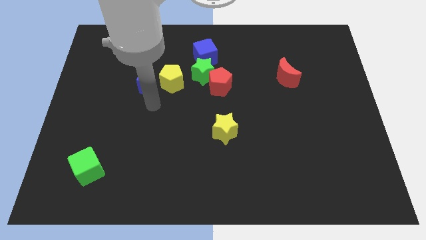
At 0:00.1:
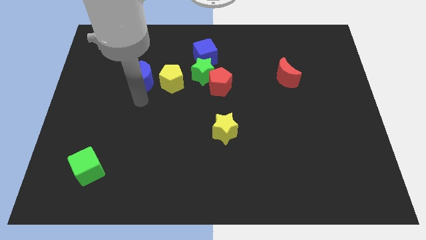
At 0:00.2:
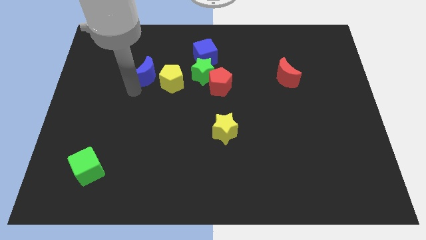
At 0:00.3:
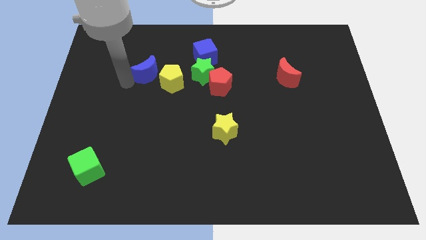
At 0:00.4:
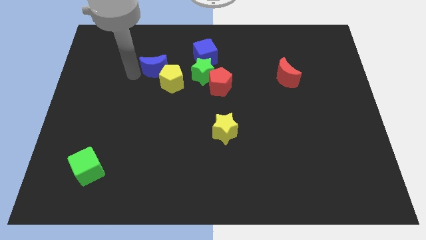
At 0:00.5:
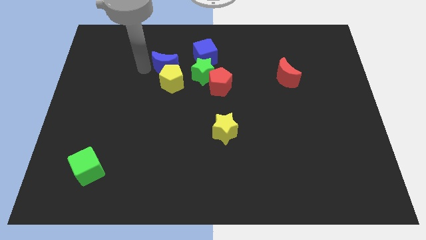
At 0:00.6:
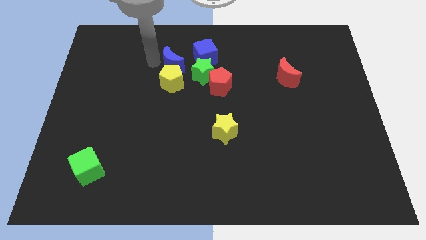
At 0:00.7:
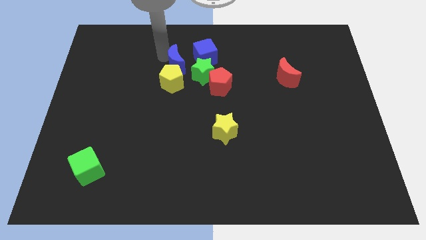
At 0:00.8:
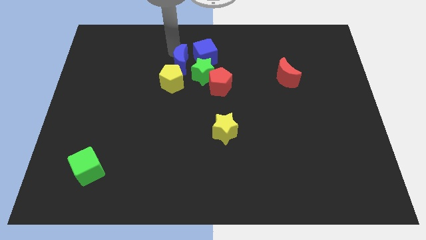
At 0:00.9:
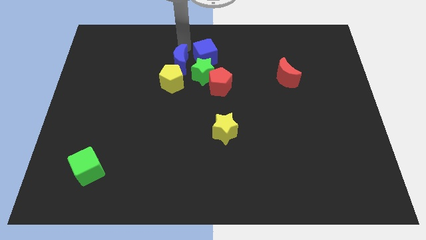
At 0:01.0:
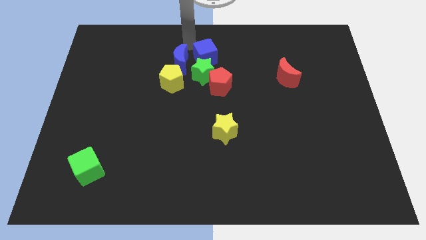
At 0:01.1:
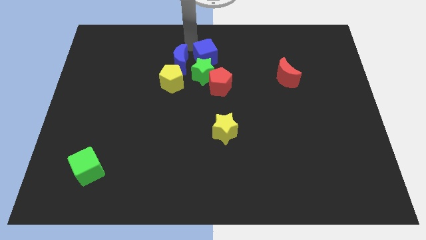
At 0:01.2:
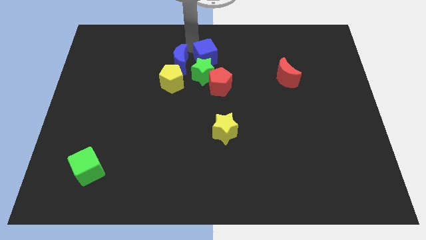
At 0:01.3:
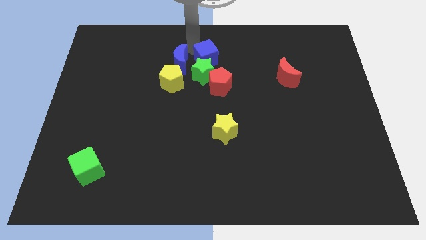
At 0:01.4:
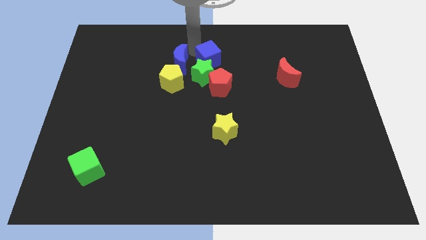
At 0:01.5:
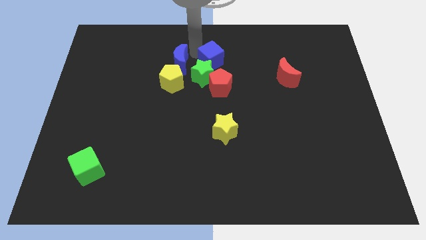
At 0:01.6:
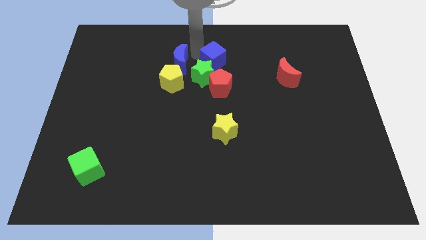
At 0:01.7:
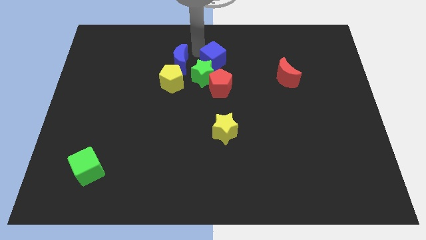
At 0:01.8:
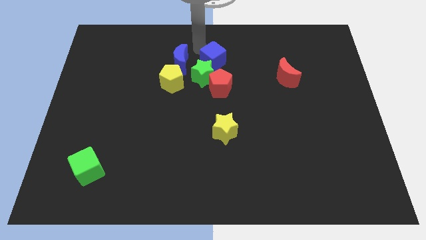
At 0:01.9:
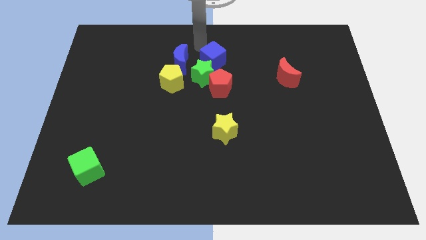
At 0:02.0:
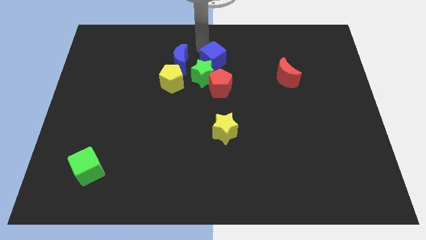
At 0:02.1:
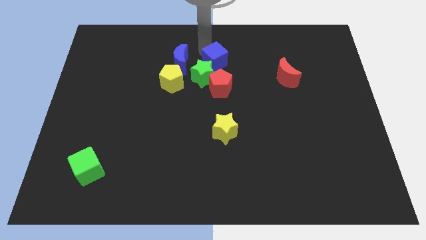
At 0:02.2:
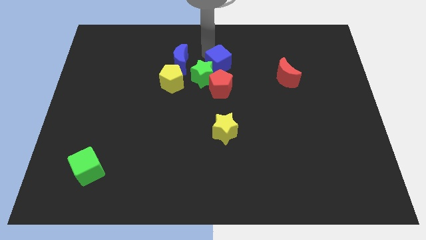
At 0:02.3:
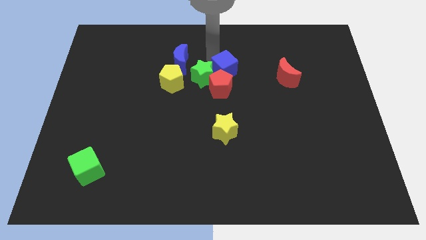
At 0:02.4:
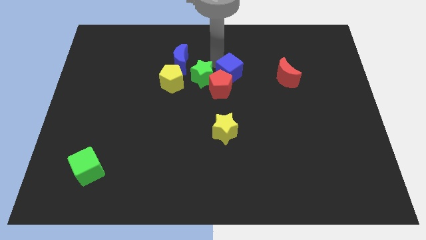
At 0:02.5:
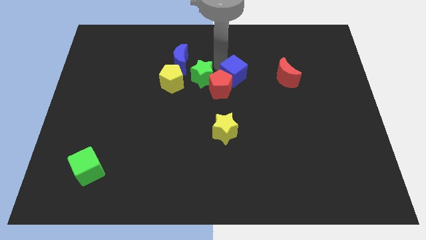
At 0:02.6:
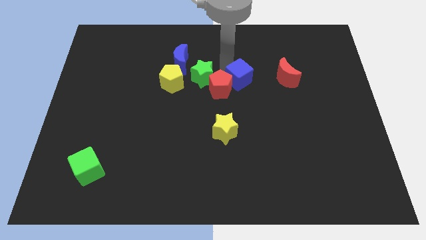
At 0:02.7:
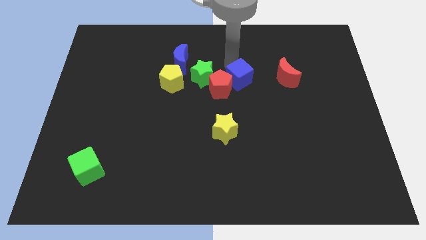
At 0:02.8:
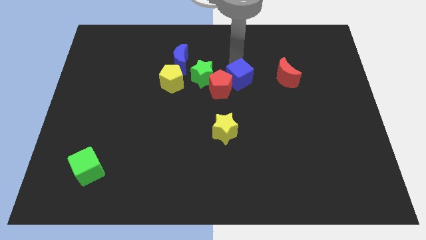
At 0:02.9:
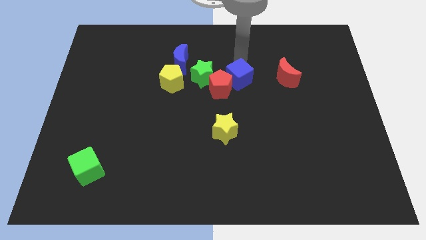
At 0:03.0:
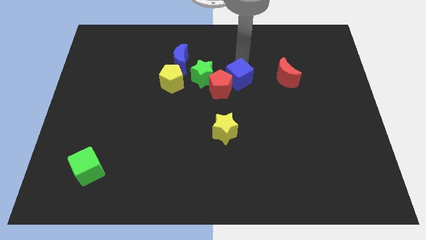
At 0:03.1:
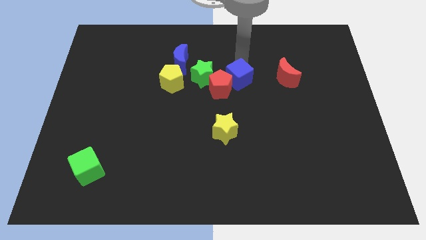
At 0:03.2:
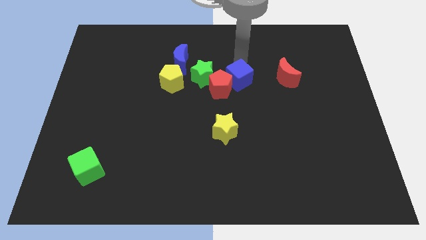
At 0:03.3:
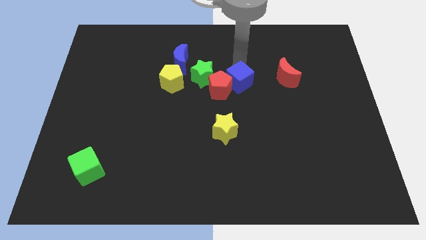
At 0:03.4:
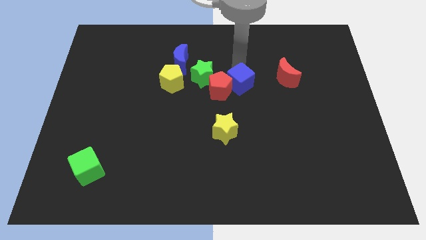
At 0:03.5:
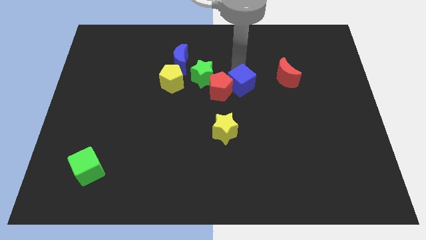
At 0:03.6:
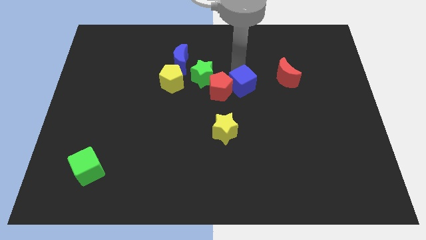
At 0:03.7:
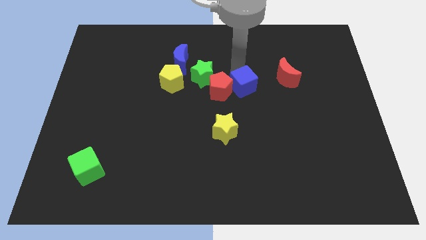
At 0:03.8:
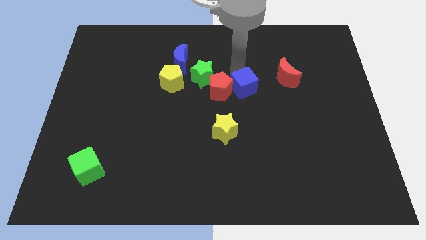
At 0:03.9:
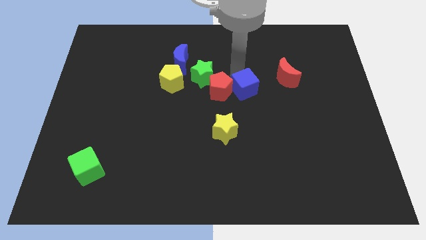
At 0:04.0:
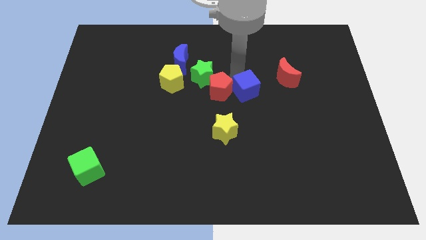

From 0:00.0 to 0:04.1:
slide the blue cube a bit downwards

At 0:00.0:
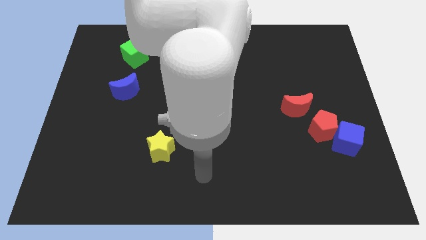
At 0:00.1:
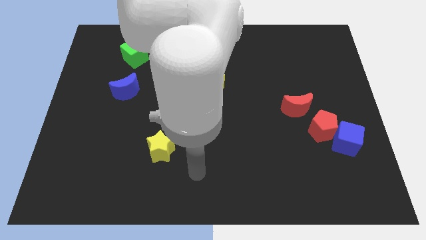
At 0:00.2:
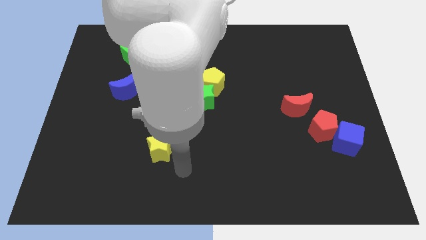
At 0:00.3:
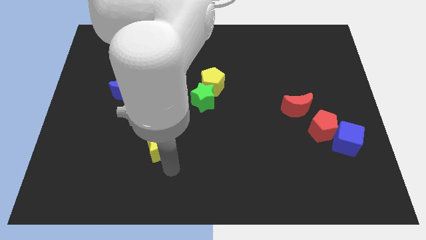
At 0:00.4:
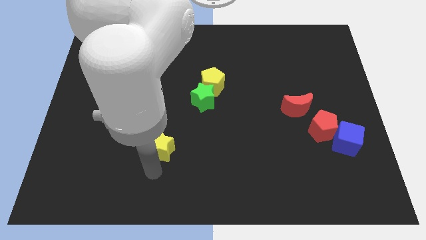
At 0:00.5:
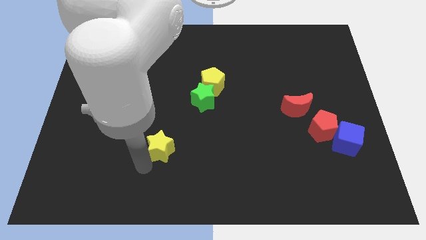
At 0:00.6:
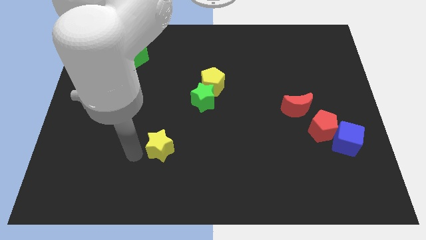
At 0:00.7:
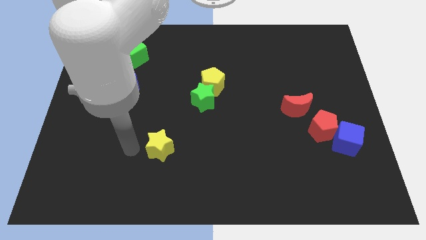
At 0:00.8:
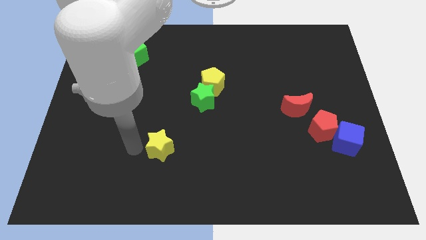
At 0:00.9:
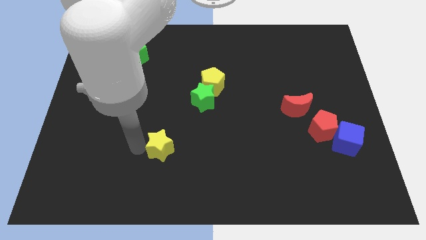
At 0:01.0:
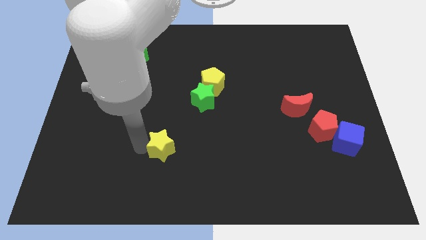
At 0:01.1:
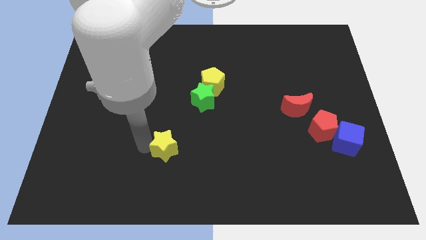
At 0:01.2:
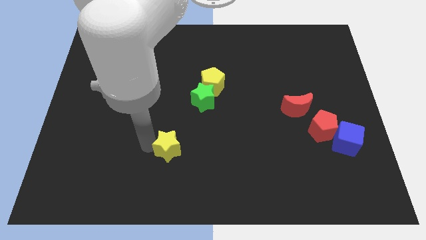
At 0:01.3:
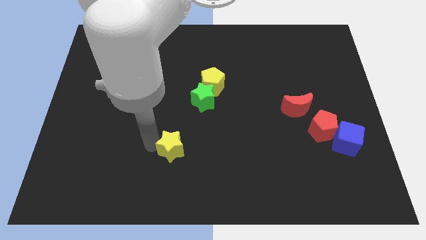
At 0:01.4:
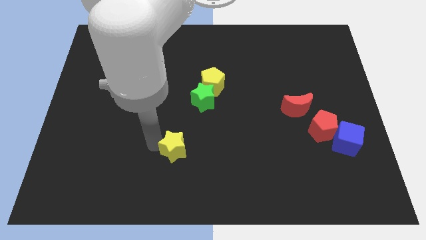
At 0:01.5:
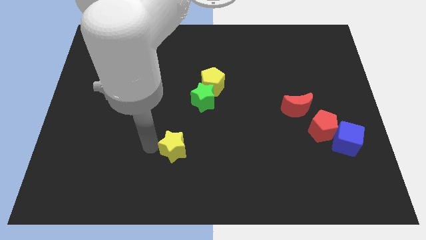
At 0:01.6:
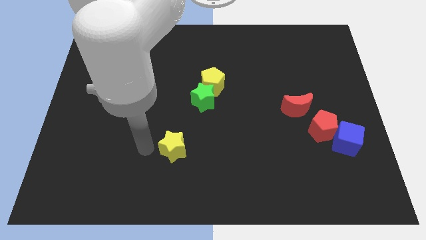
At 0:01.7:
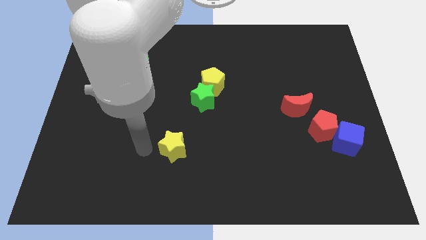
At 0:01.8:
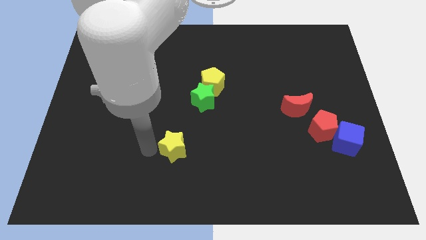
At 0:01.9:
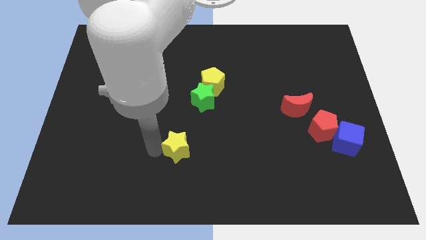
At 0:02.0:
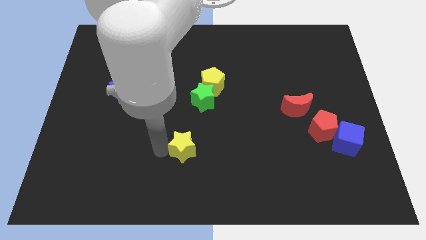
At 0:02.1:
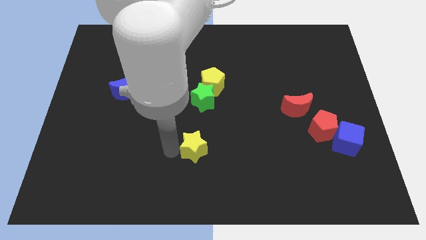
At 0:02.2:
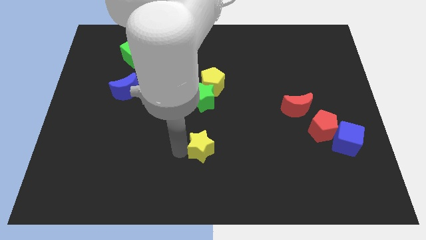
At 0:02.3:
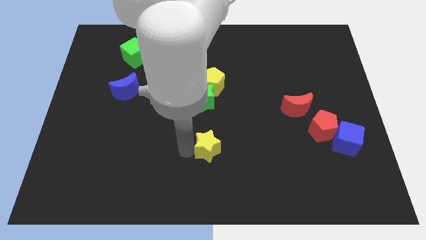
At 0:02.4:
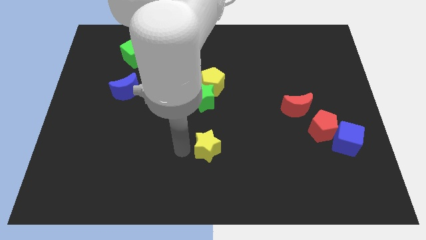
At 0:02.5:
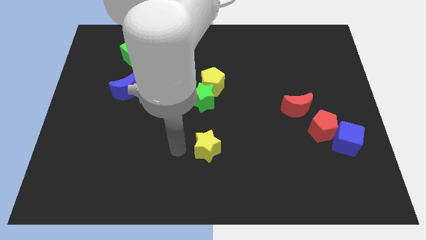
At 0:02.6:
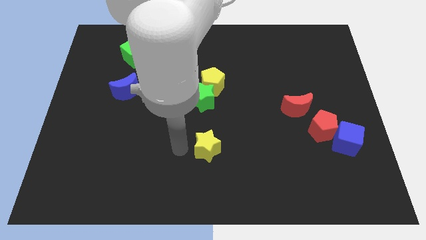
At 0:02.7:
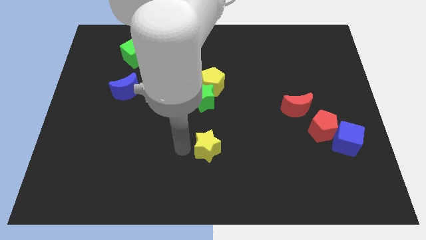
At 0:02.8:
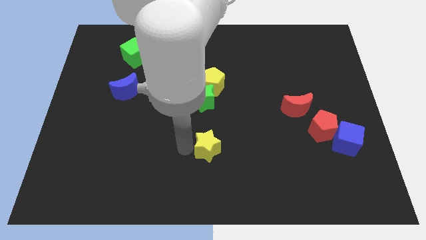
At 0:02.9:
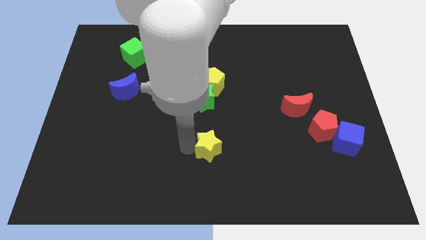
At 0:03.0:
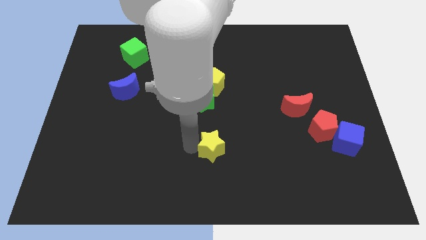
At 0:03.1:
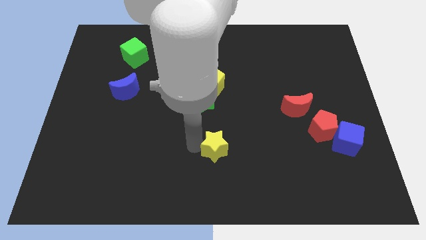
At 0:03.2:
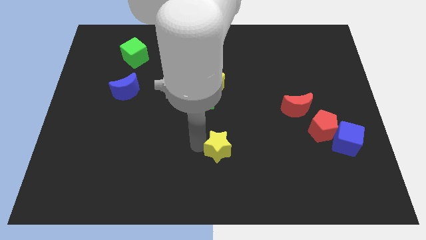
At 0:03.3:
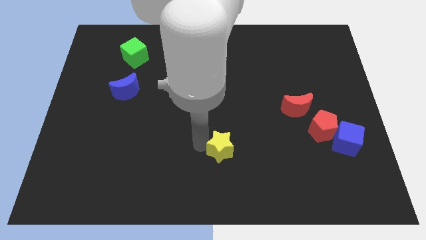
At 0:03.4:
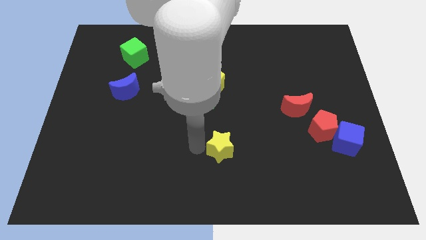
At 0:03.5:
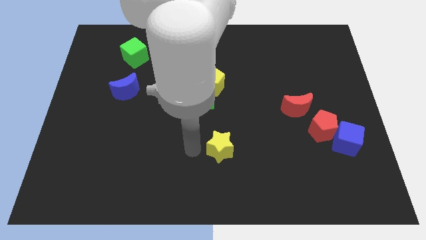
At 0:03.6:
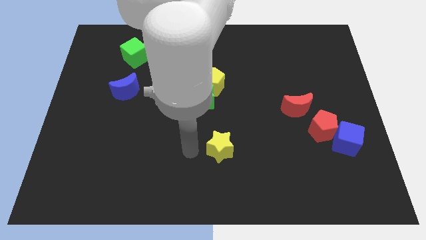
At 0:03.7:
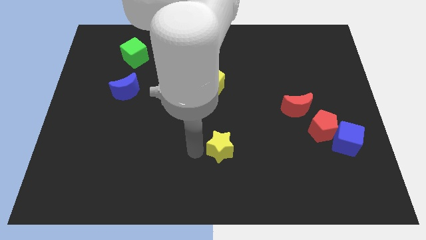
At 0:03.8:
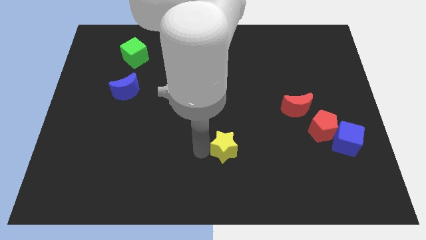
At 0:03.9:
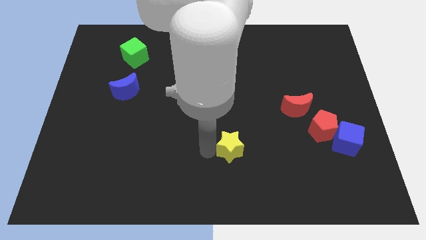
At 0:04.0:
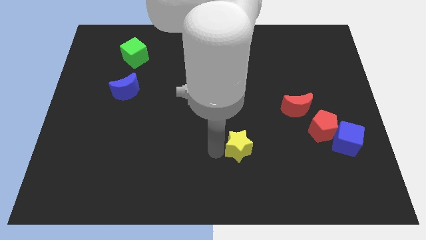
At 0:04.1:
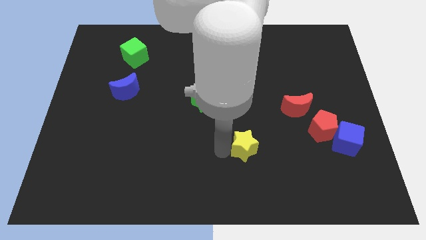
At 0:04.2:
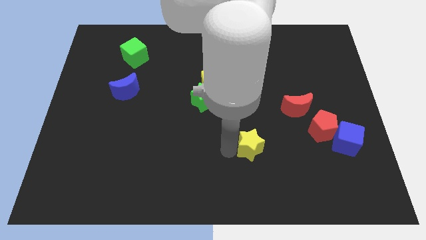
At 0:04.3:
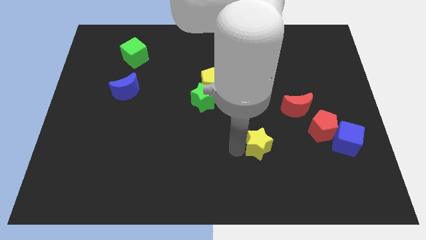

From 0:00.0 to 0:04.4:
move the yellow star right
